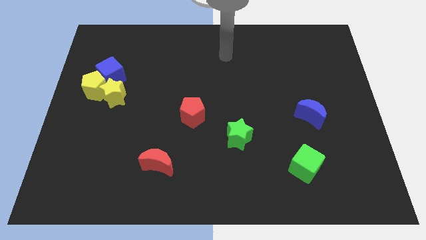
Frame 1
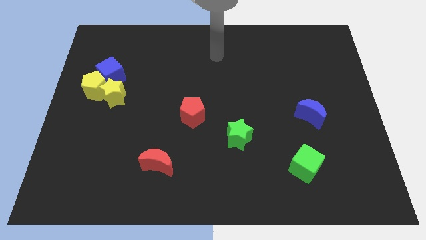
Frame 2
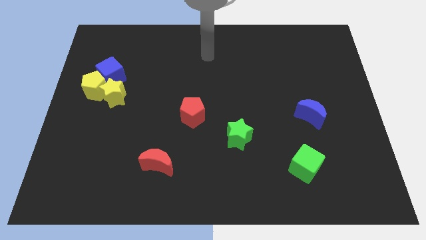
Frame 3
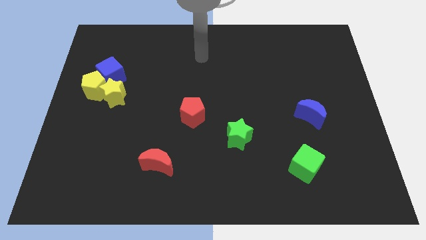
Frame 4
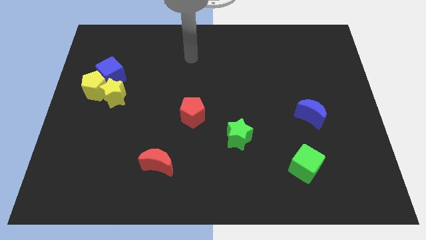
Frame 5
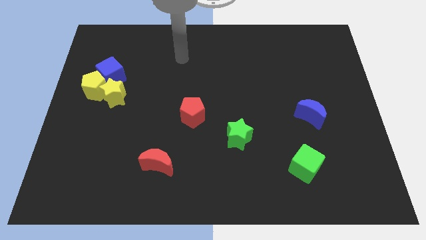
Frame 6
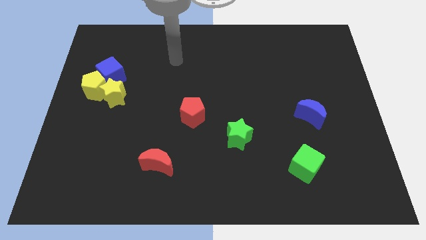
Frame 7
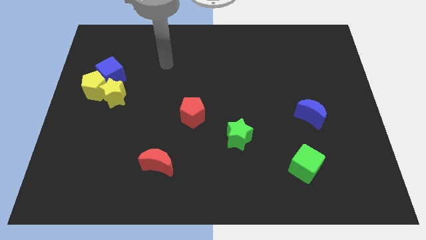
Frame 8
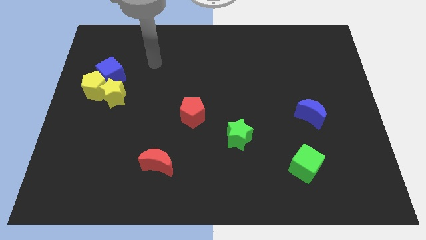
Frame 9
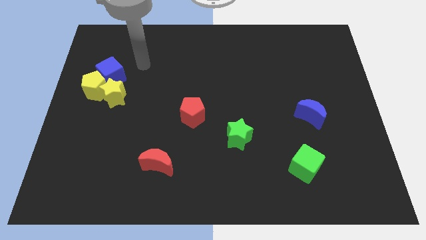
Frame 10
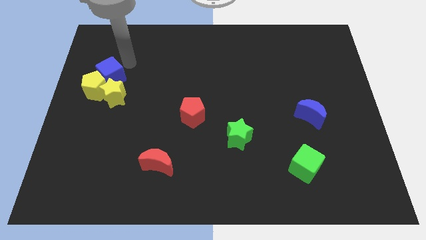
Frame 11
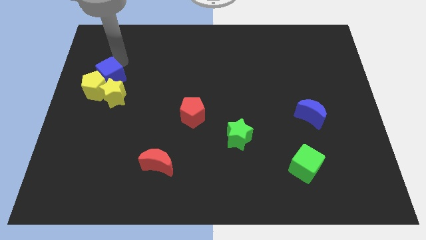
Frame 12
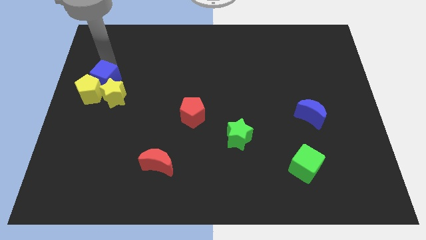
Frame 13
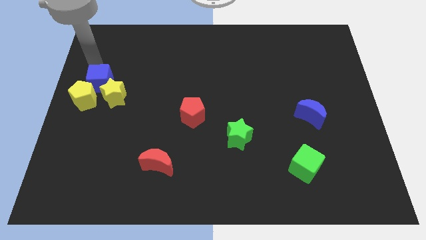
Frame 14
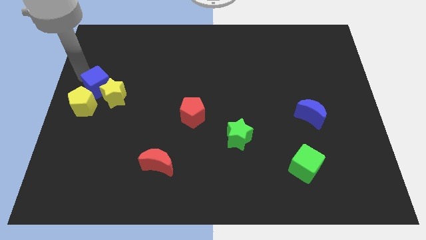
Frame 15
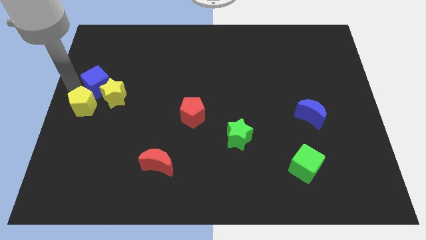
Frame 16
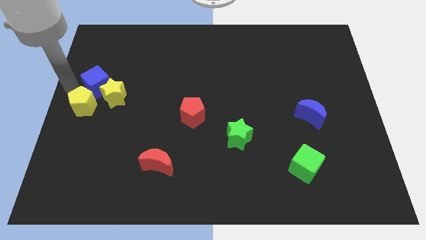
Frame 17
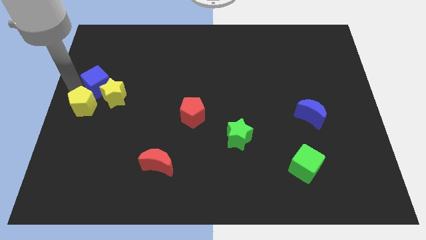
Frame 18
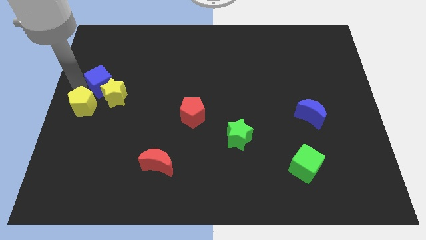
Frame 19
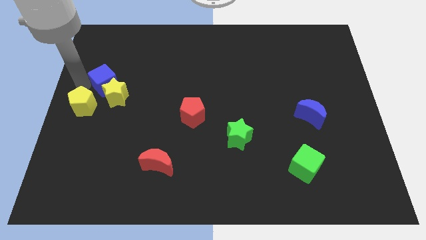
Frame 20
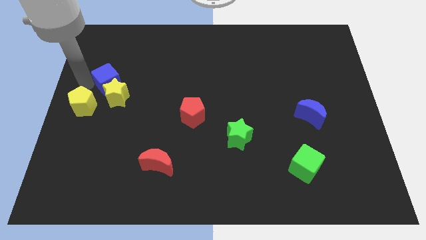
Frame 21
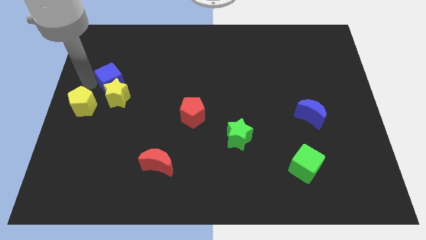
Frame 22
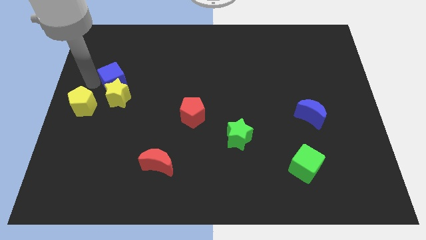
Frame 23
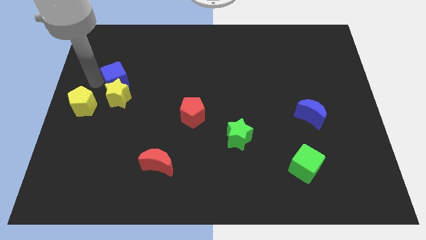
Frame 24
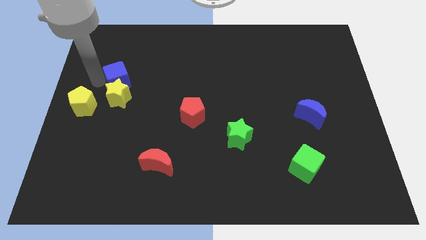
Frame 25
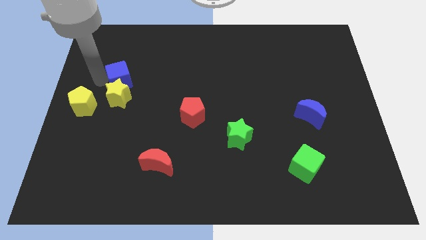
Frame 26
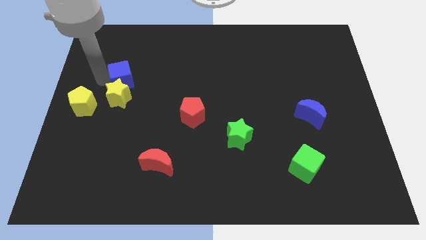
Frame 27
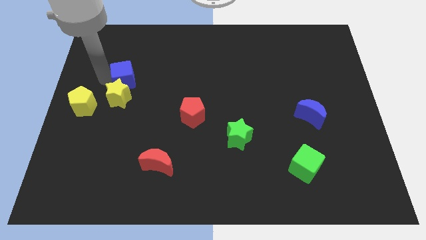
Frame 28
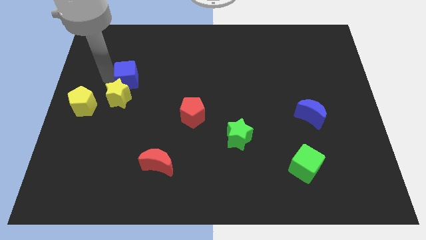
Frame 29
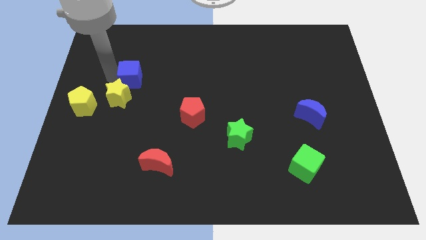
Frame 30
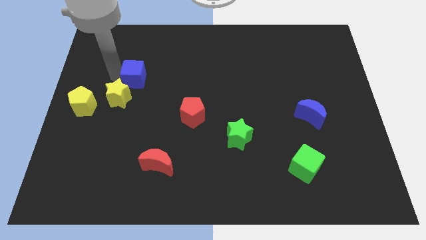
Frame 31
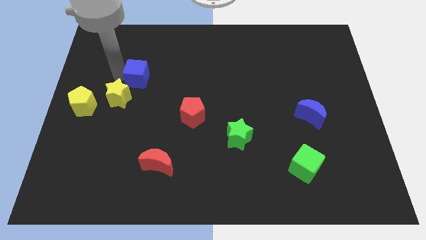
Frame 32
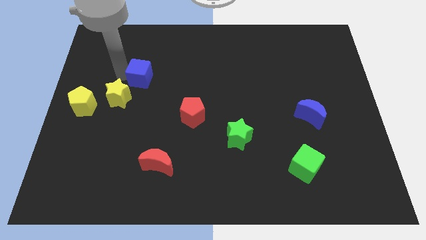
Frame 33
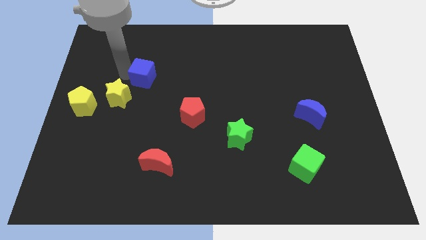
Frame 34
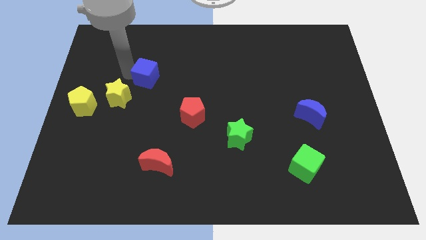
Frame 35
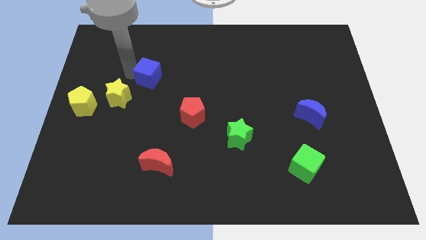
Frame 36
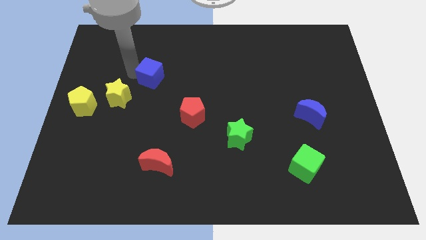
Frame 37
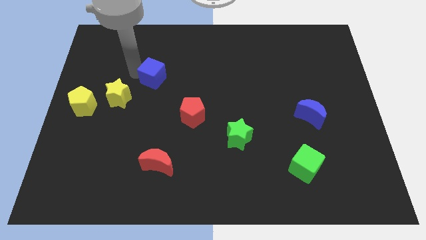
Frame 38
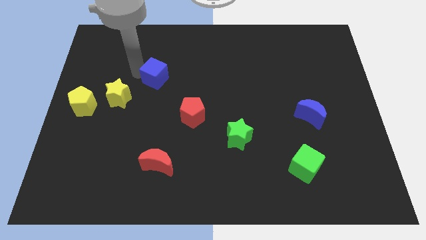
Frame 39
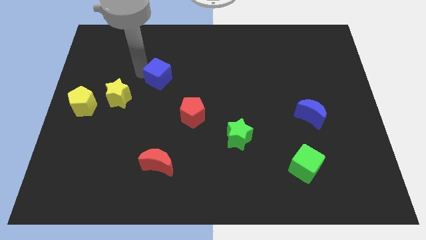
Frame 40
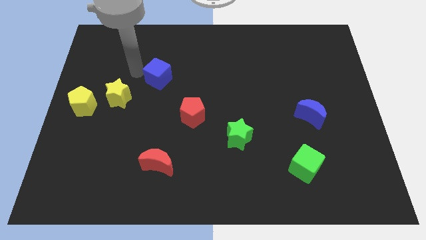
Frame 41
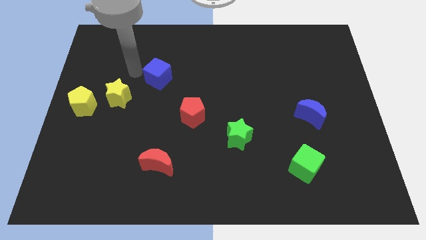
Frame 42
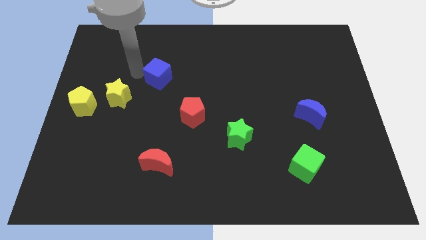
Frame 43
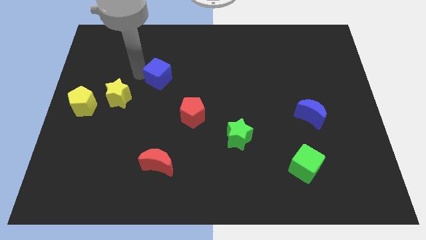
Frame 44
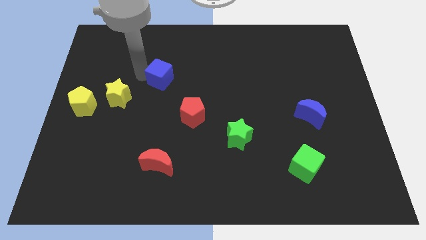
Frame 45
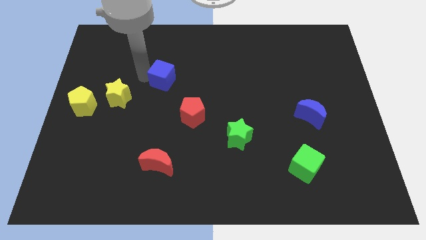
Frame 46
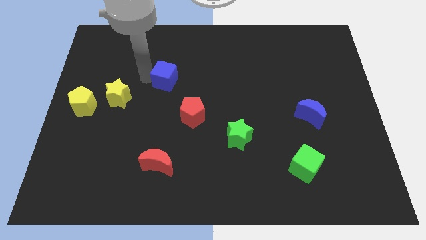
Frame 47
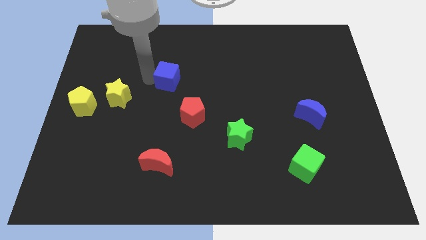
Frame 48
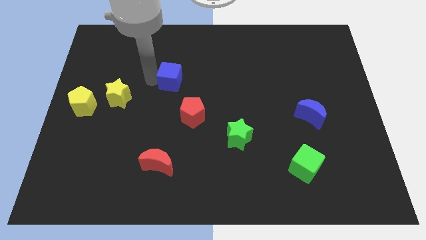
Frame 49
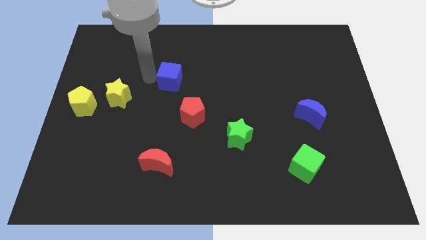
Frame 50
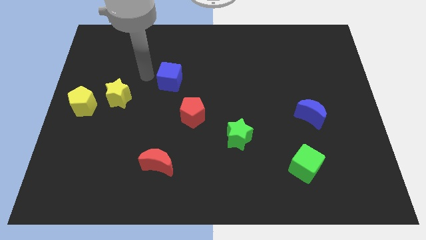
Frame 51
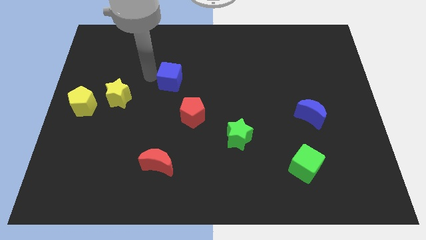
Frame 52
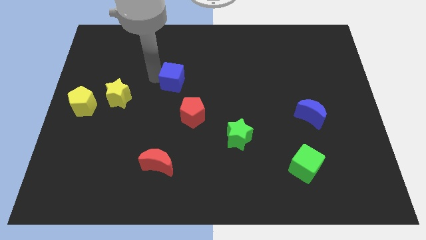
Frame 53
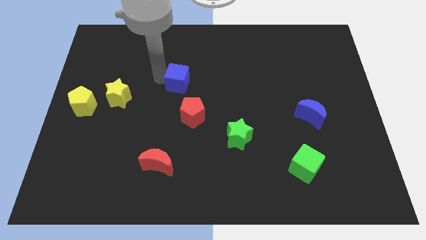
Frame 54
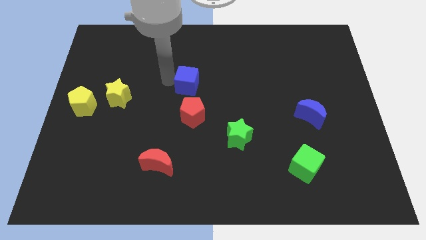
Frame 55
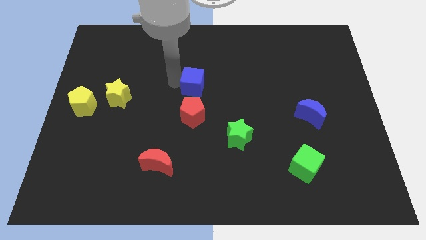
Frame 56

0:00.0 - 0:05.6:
move the blue cube to the right

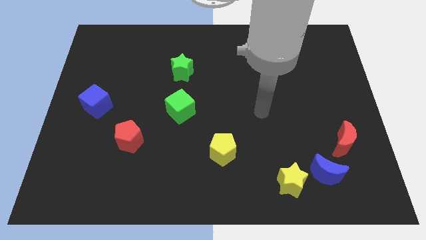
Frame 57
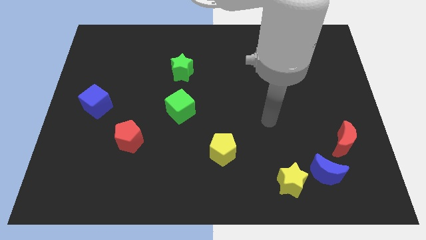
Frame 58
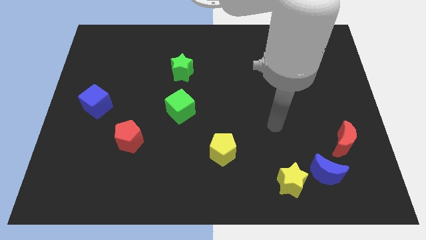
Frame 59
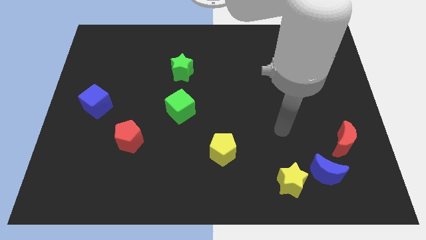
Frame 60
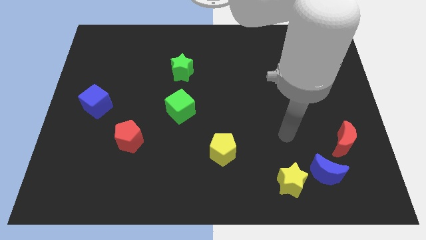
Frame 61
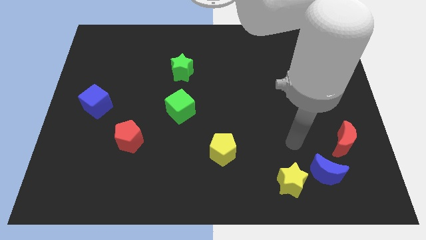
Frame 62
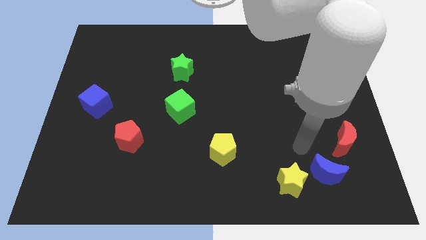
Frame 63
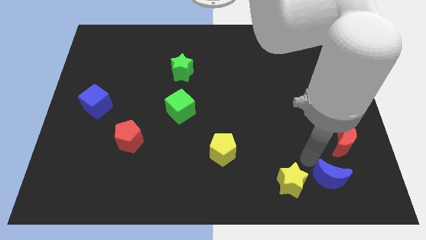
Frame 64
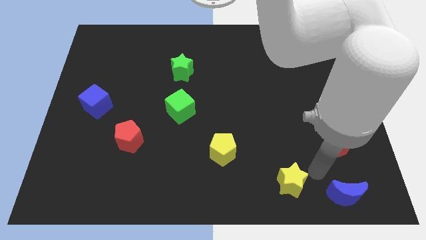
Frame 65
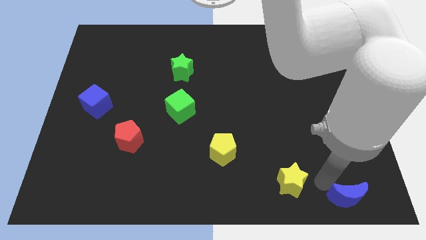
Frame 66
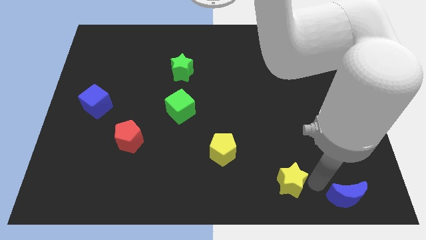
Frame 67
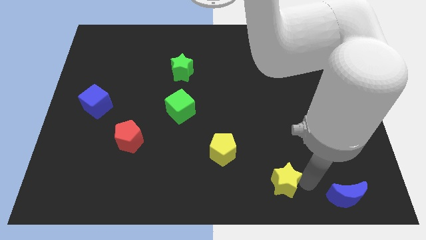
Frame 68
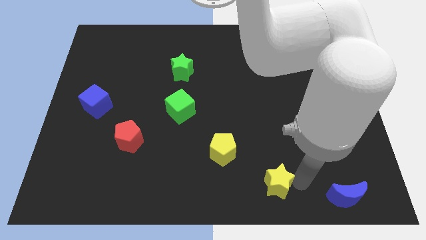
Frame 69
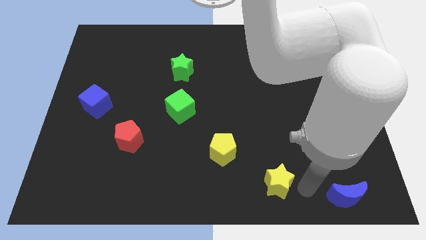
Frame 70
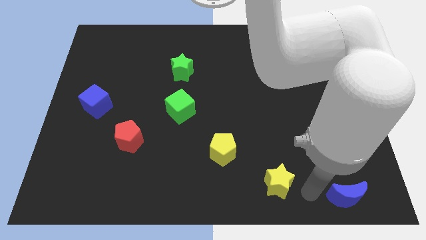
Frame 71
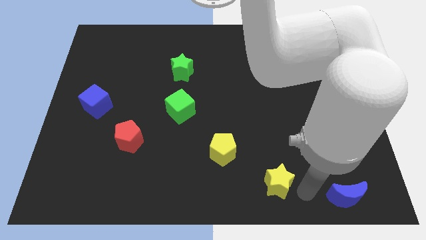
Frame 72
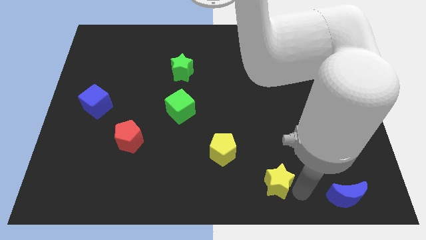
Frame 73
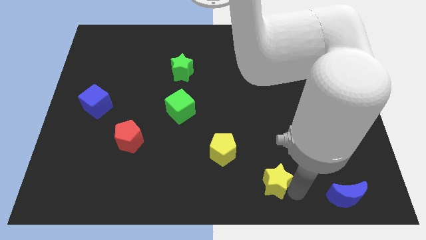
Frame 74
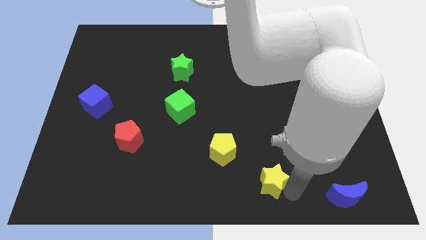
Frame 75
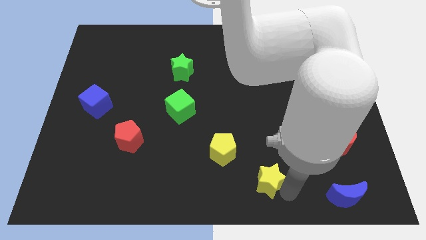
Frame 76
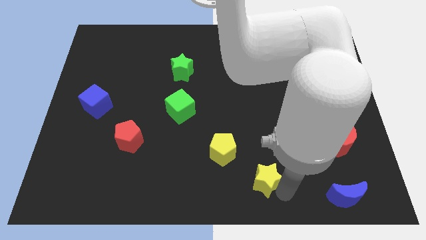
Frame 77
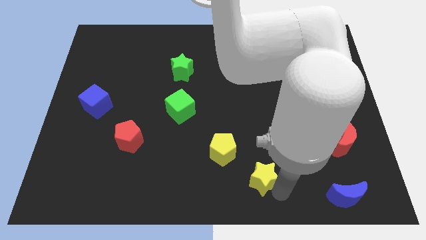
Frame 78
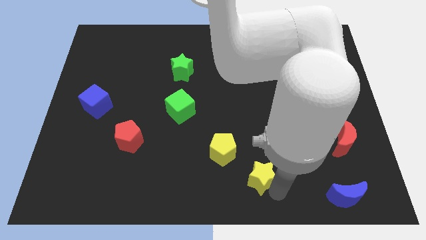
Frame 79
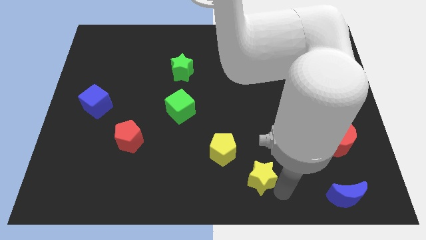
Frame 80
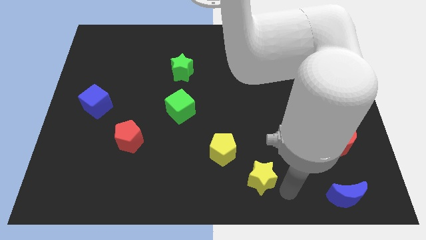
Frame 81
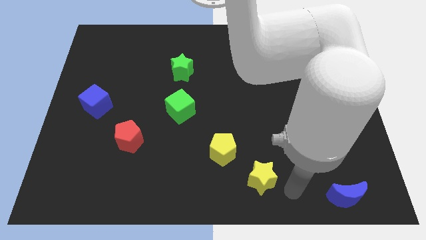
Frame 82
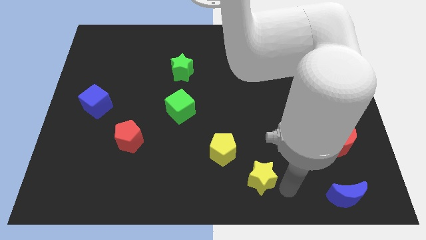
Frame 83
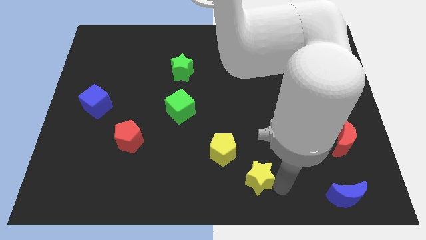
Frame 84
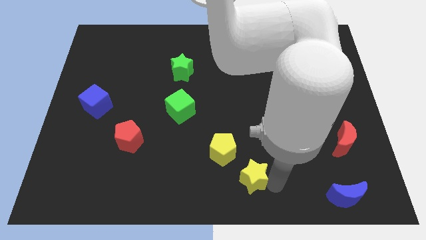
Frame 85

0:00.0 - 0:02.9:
slightly push the yellow star left
